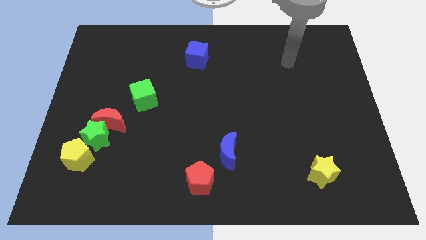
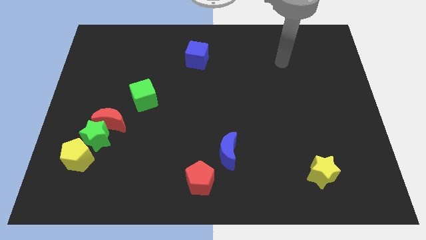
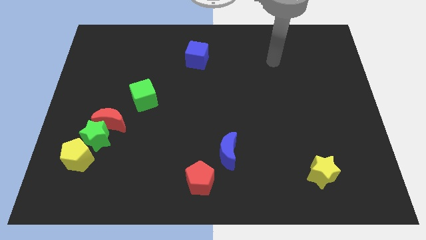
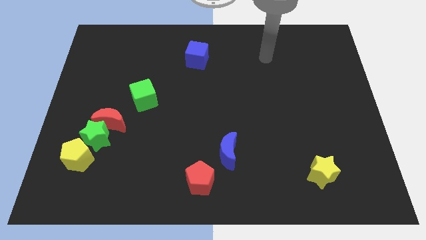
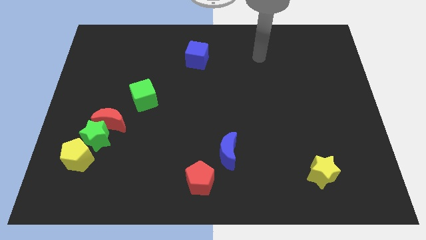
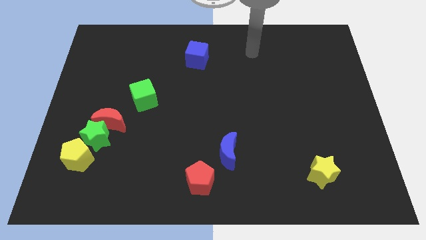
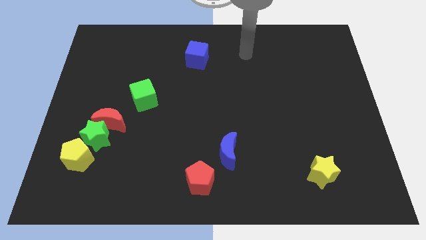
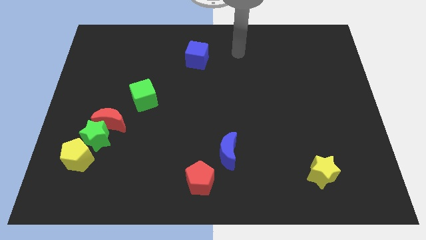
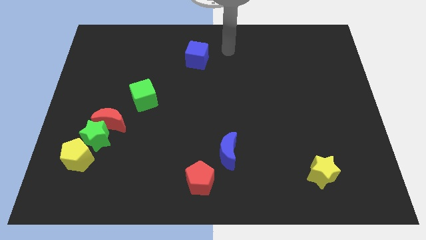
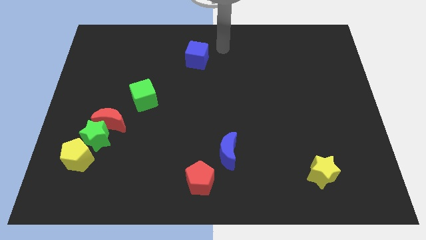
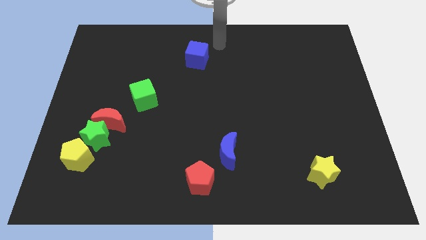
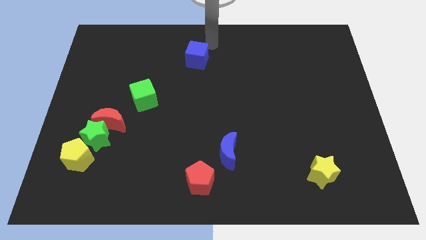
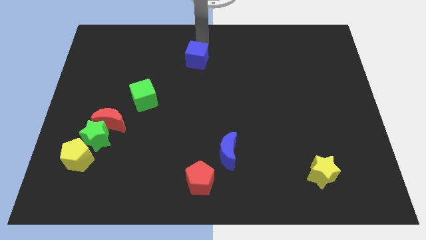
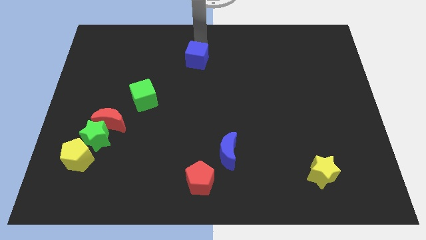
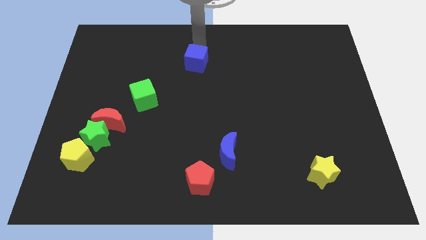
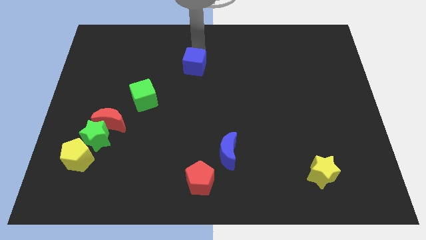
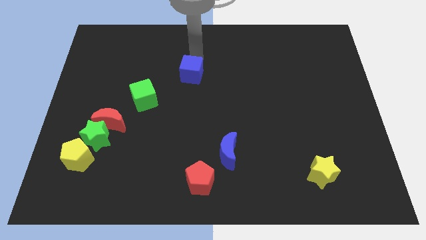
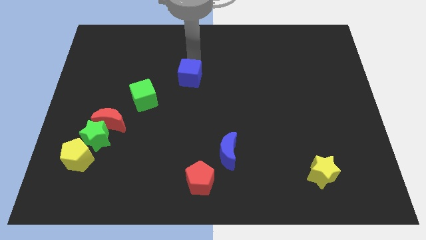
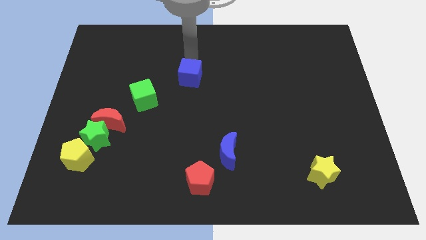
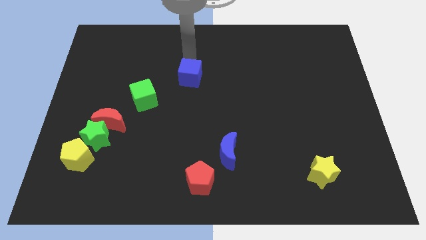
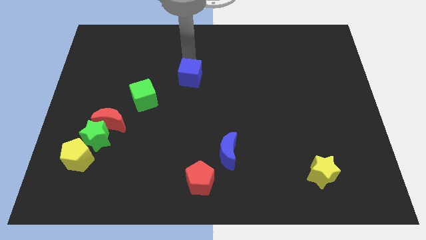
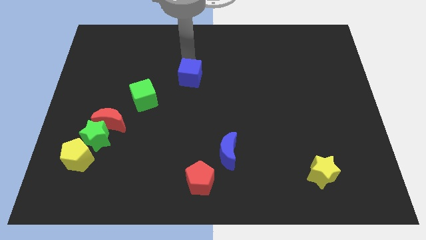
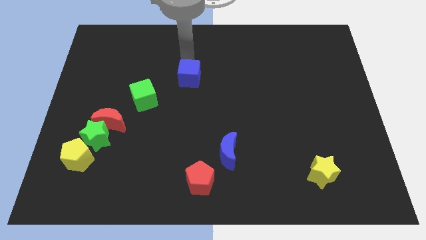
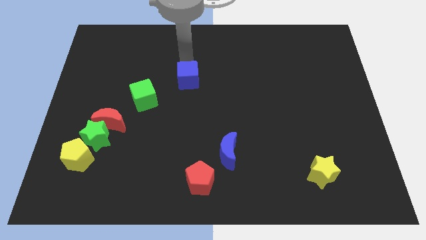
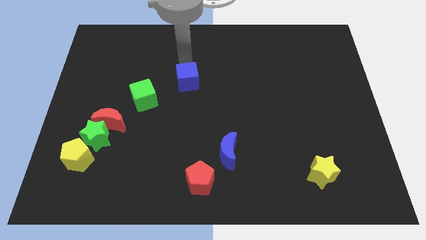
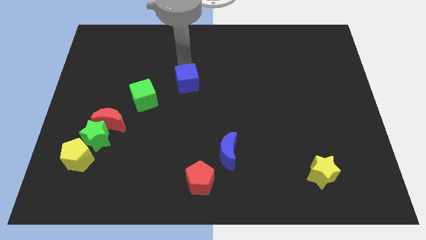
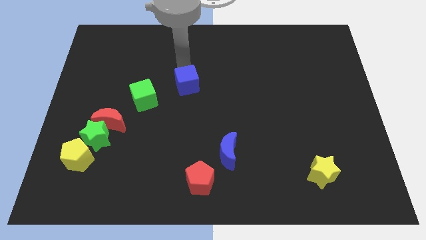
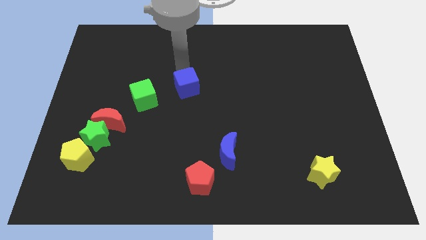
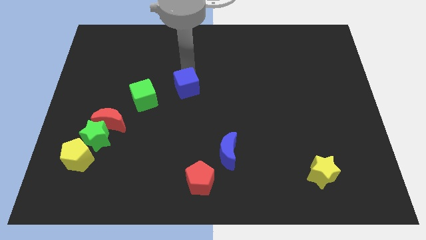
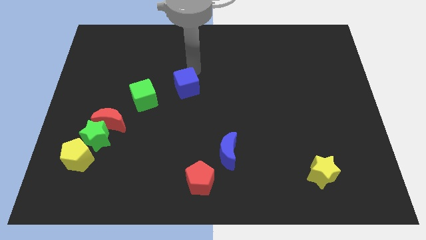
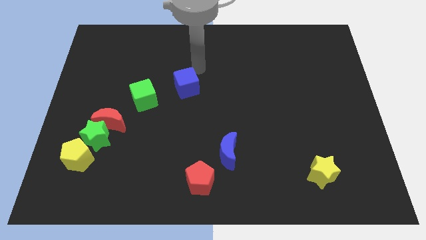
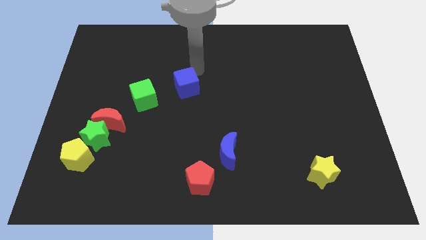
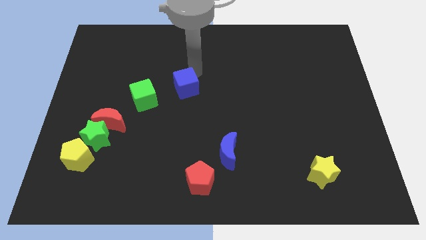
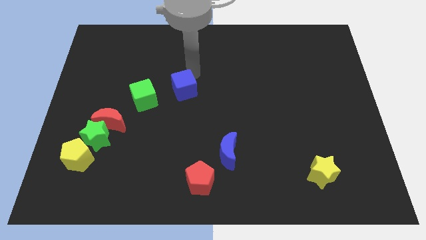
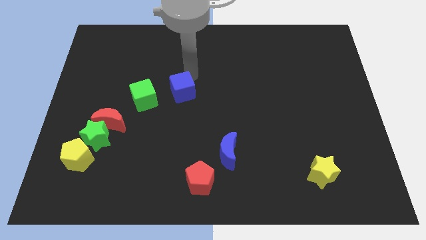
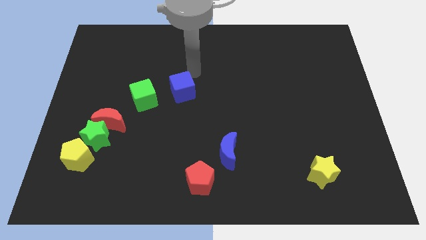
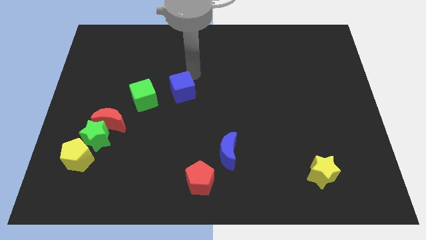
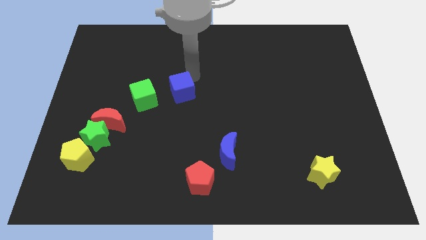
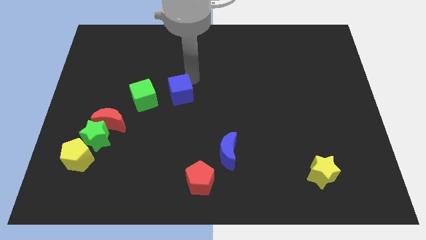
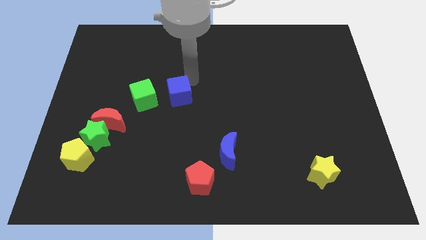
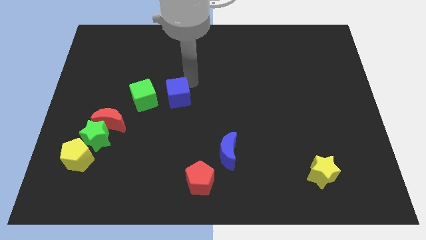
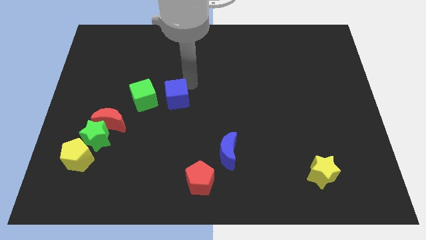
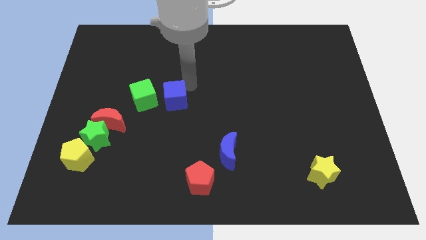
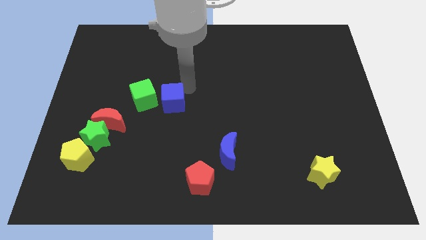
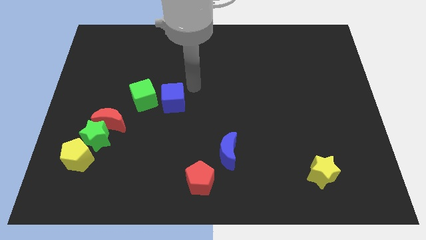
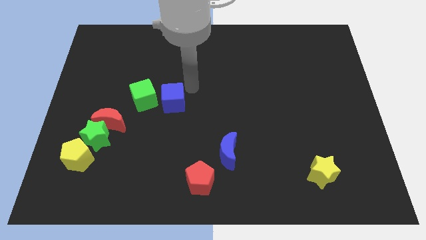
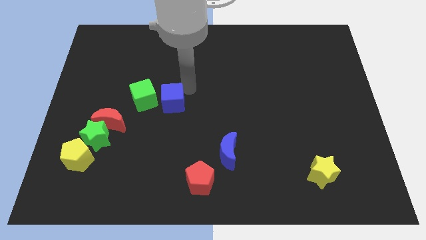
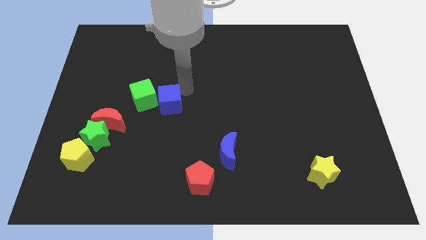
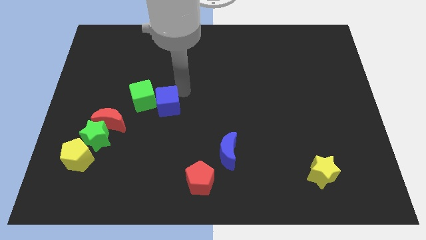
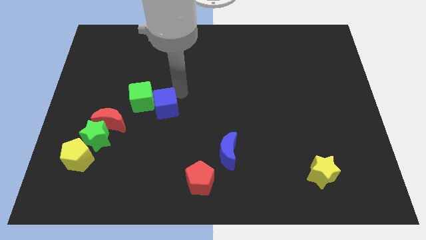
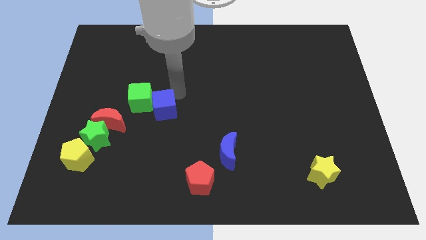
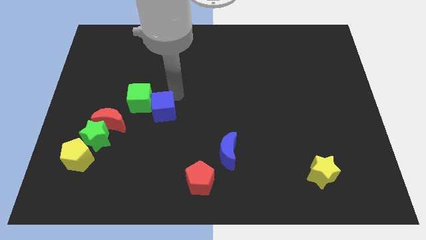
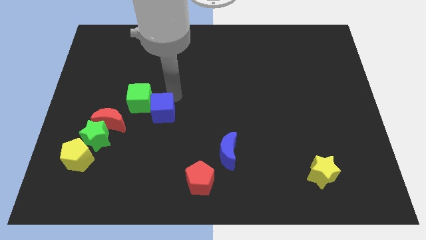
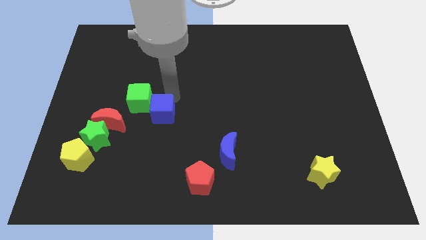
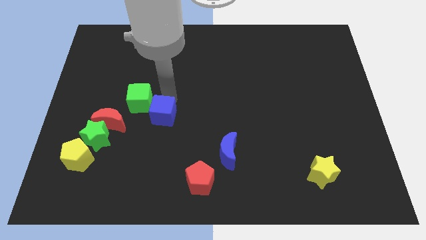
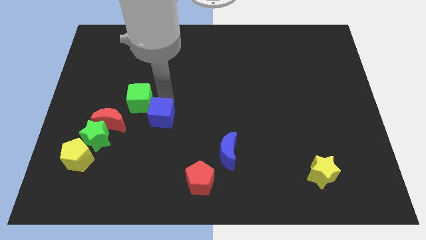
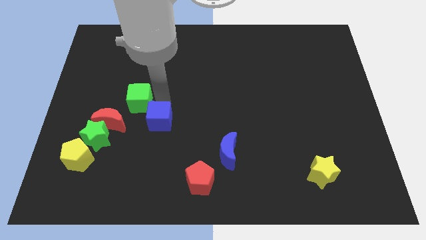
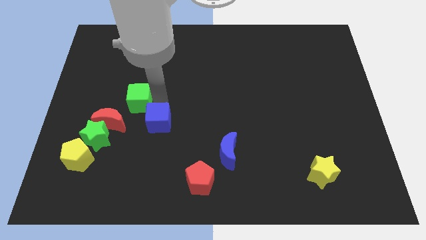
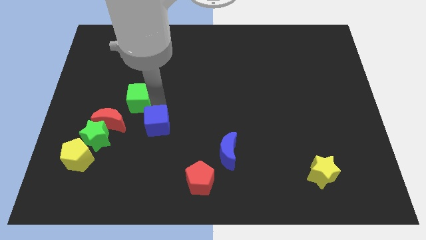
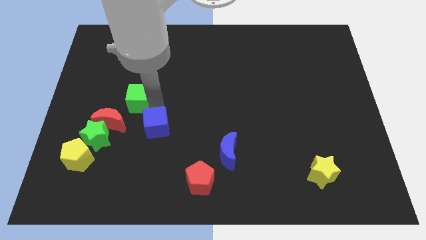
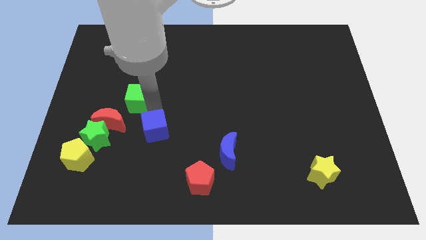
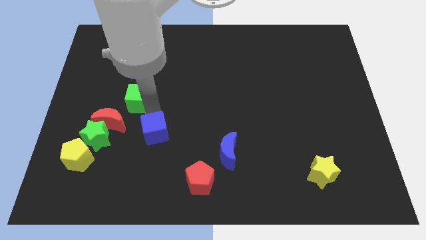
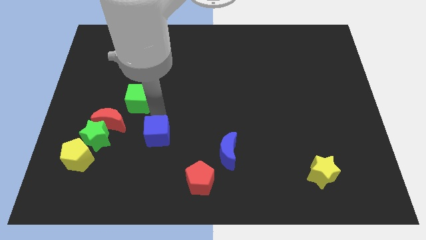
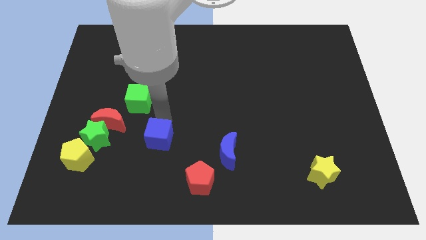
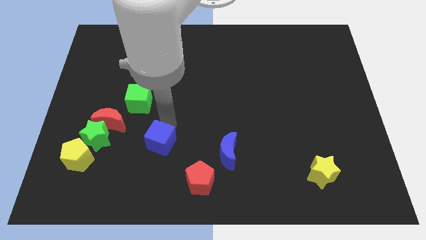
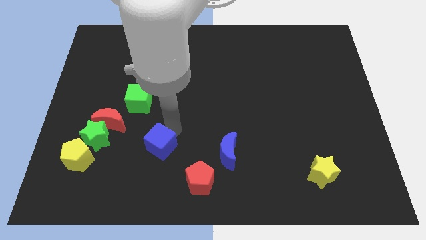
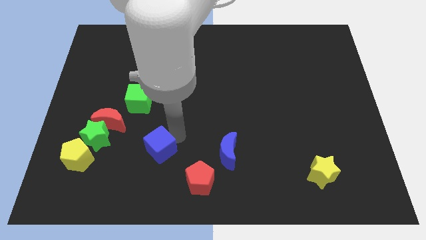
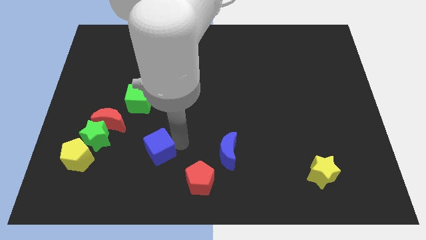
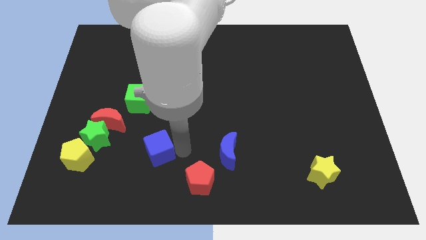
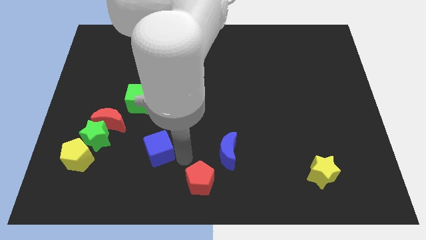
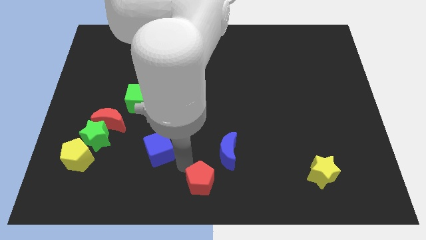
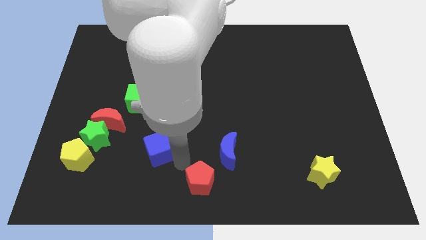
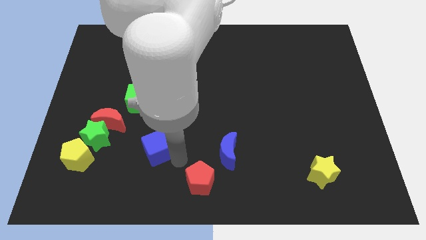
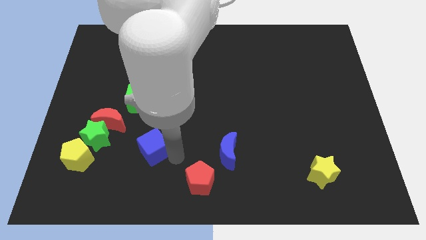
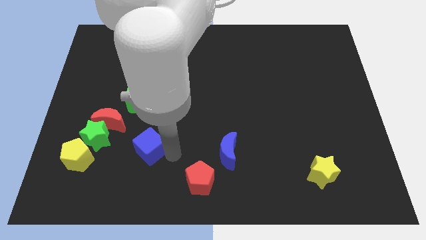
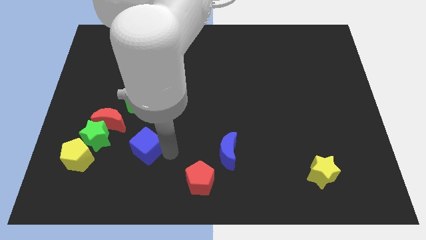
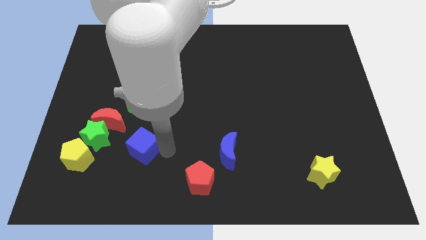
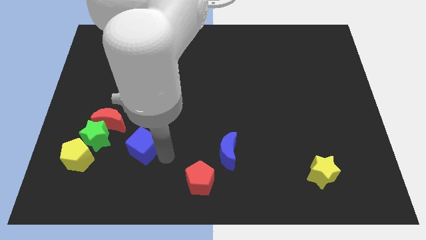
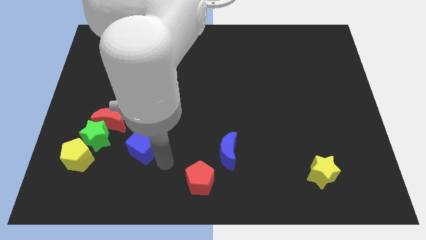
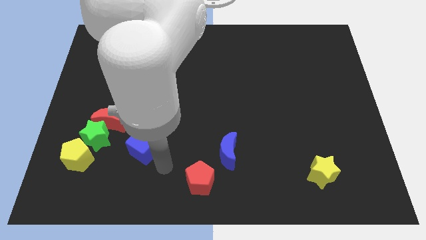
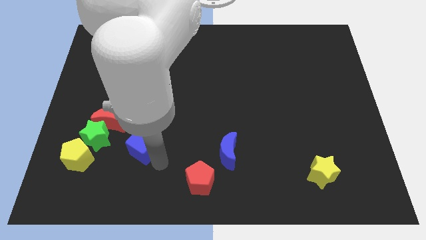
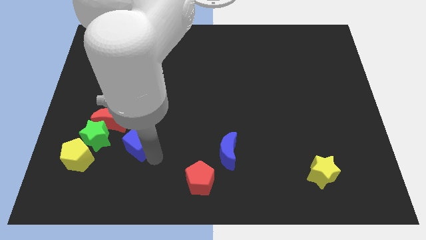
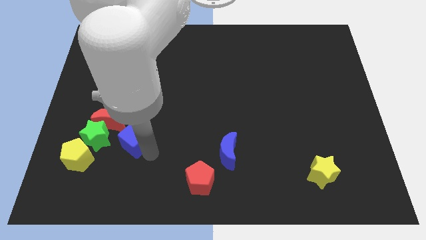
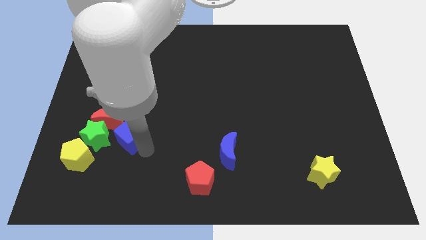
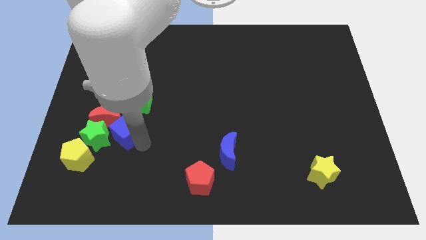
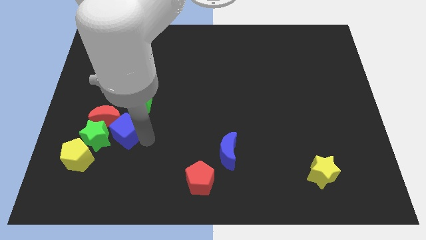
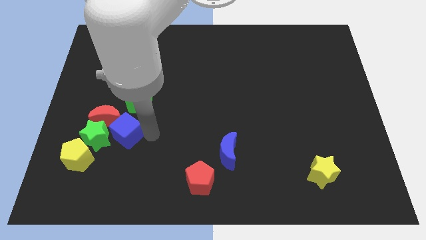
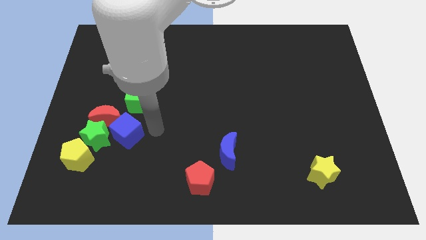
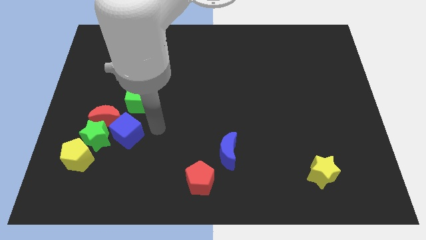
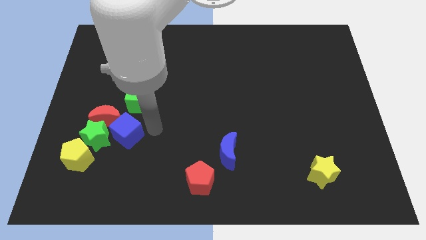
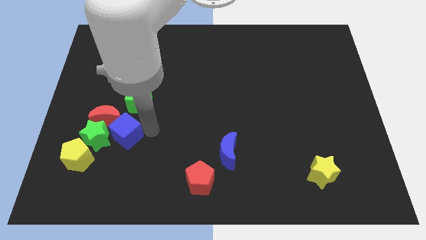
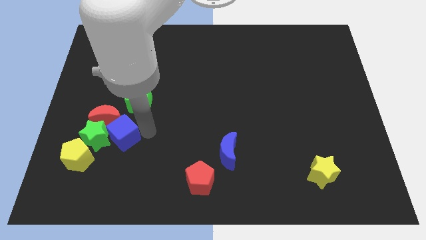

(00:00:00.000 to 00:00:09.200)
put the blue cube close to the green star
